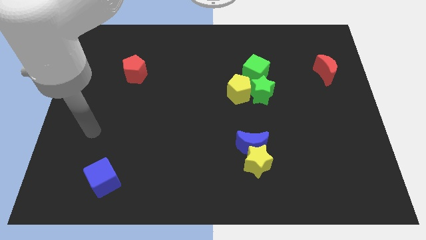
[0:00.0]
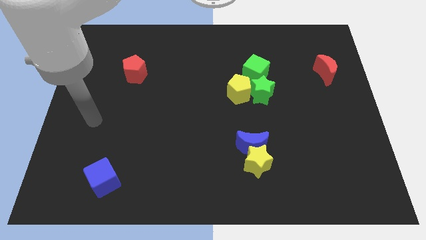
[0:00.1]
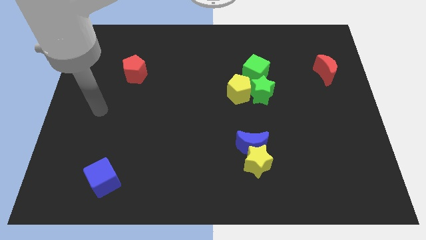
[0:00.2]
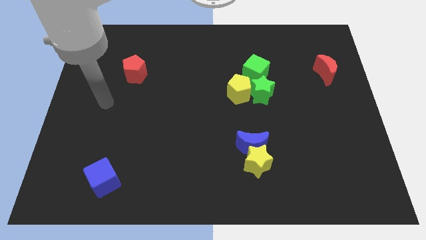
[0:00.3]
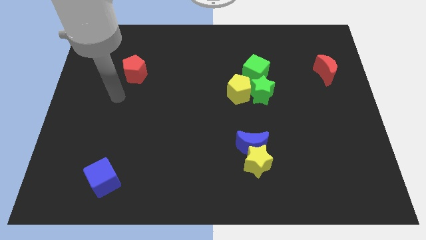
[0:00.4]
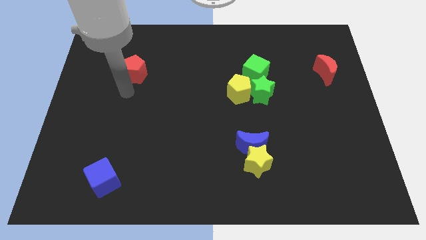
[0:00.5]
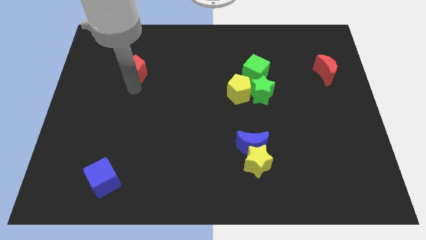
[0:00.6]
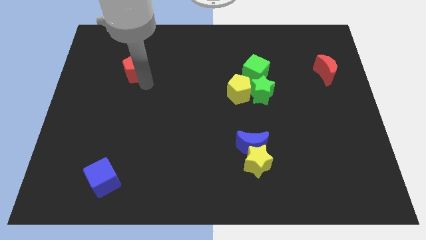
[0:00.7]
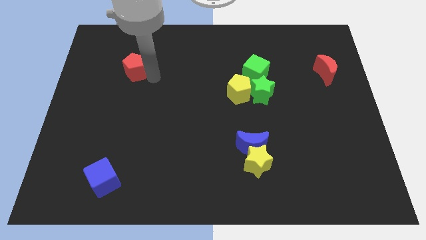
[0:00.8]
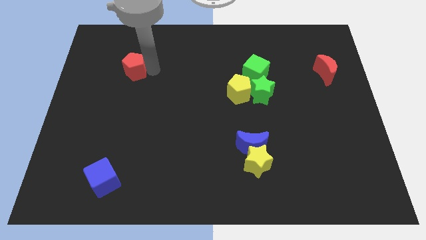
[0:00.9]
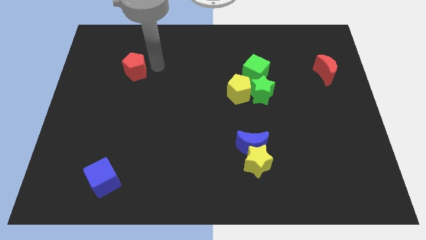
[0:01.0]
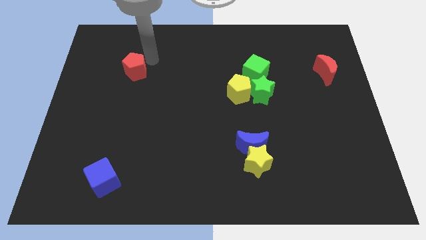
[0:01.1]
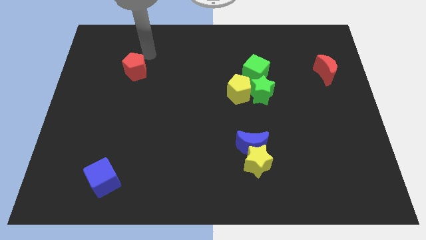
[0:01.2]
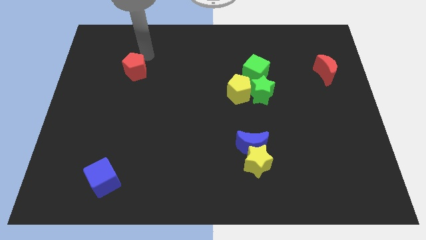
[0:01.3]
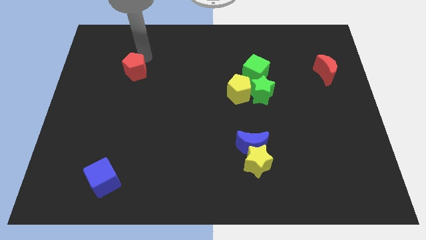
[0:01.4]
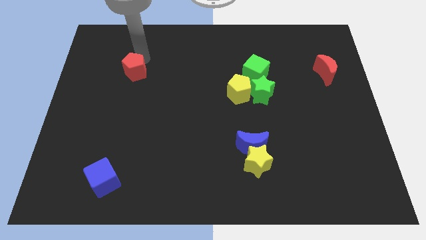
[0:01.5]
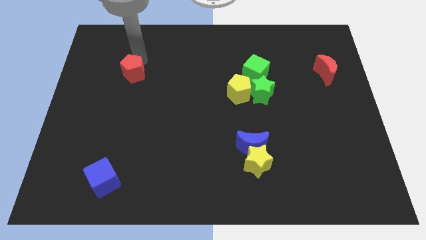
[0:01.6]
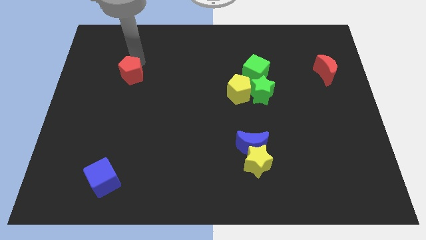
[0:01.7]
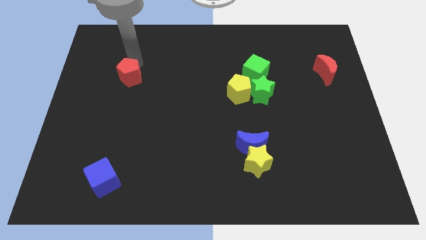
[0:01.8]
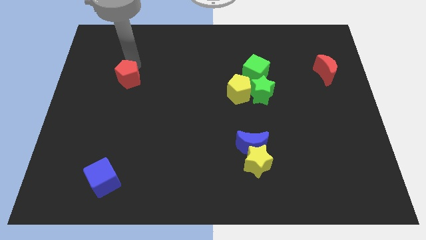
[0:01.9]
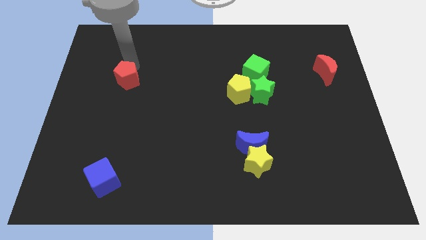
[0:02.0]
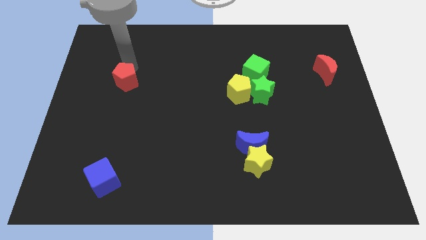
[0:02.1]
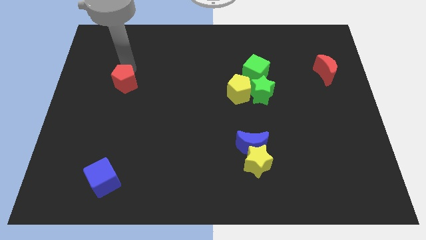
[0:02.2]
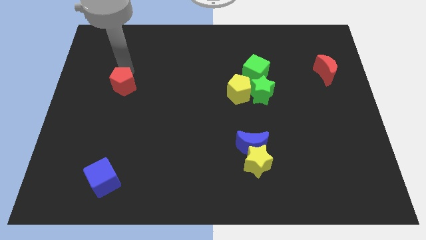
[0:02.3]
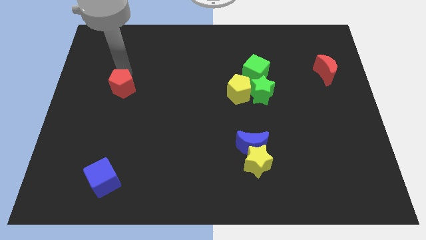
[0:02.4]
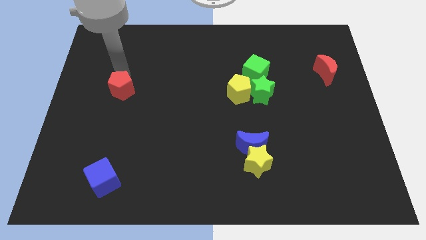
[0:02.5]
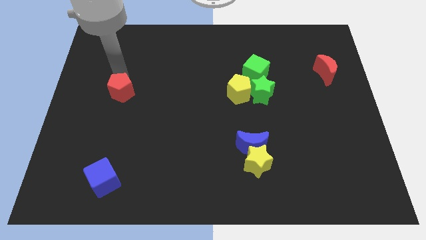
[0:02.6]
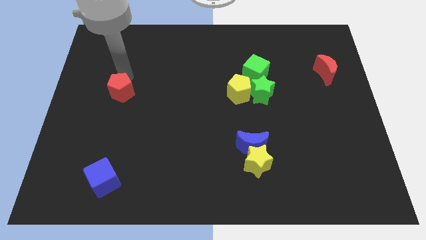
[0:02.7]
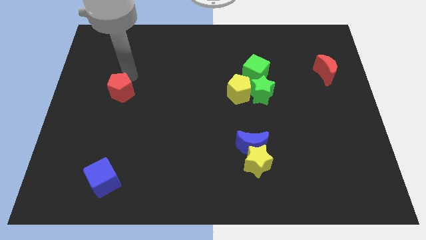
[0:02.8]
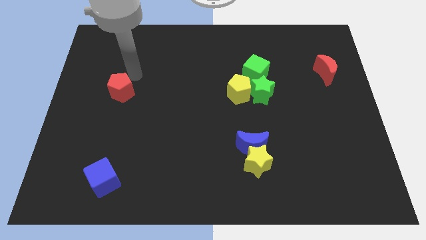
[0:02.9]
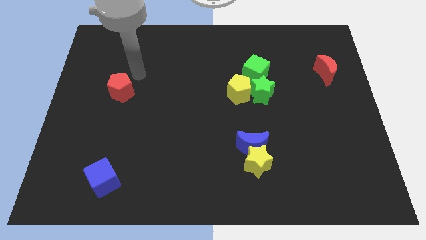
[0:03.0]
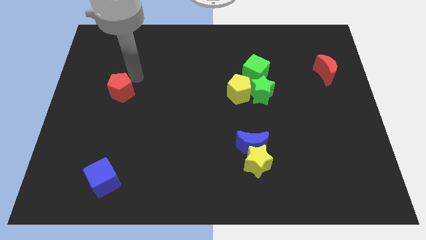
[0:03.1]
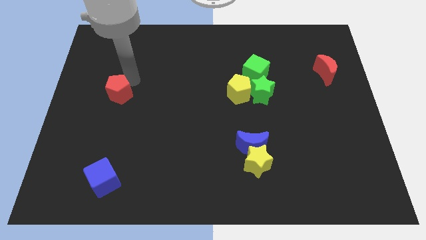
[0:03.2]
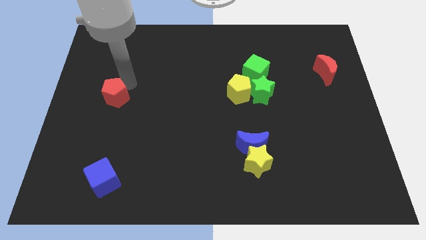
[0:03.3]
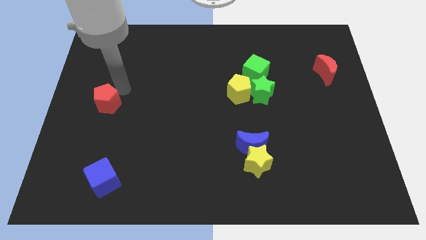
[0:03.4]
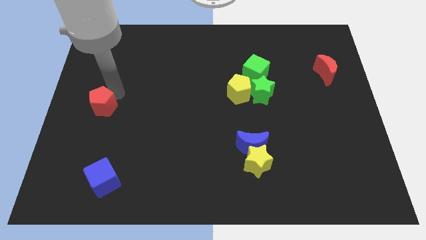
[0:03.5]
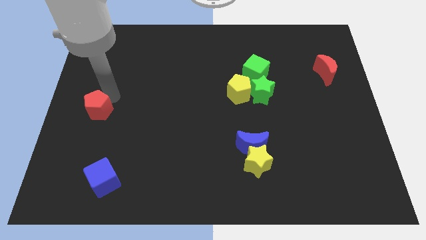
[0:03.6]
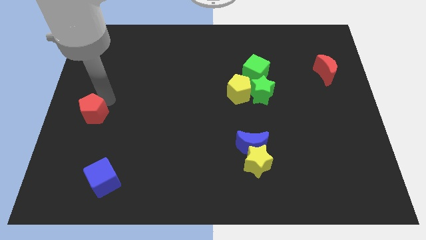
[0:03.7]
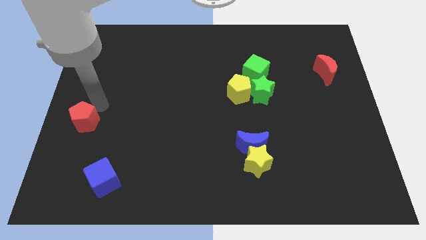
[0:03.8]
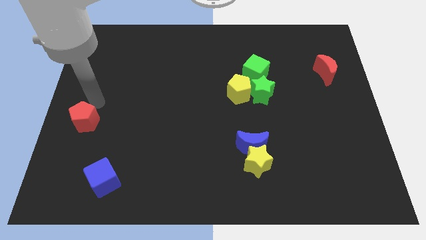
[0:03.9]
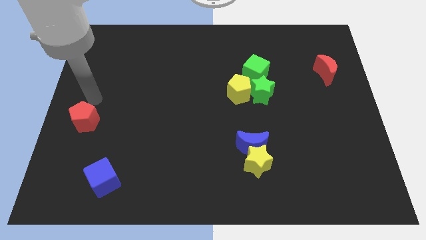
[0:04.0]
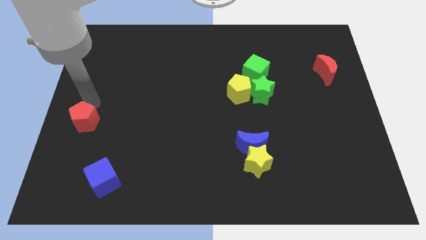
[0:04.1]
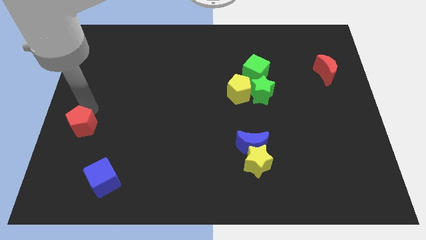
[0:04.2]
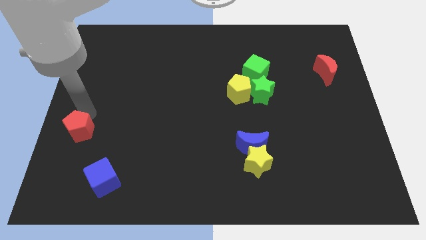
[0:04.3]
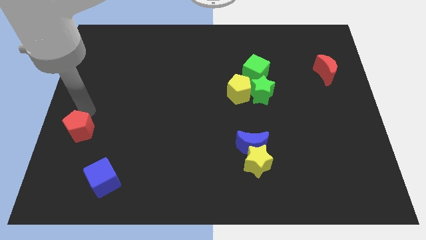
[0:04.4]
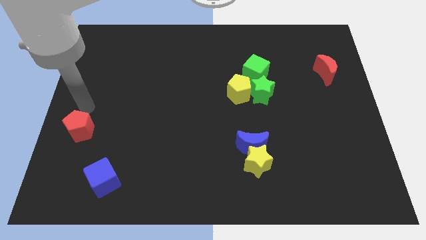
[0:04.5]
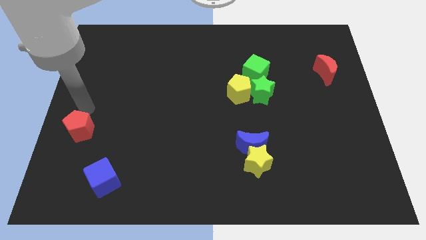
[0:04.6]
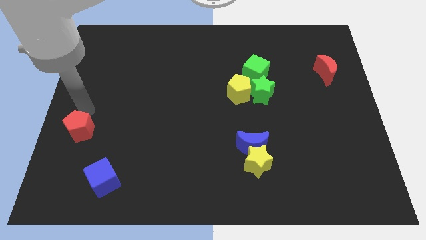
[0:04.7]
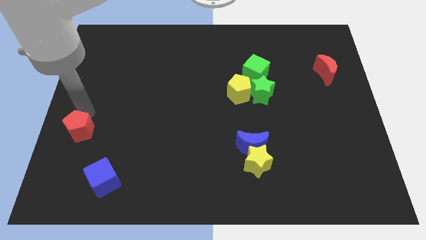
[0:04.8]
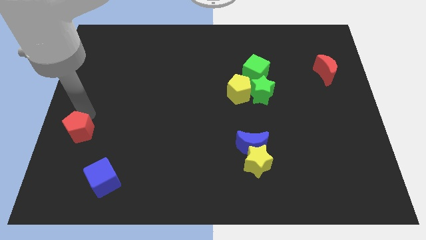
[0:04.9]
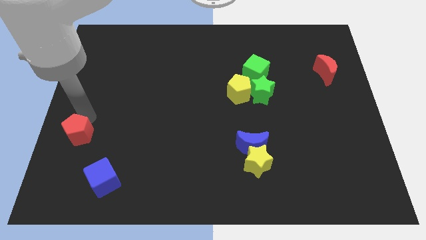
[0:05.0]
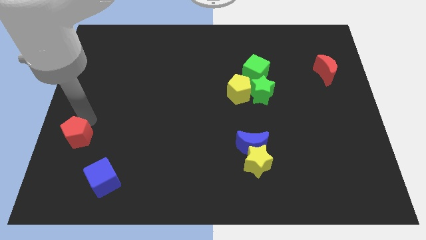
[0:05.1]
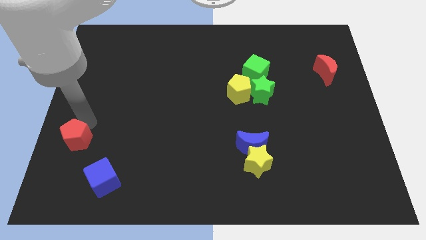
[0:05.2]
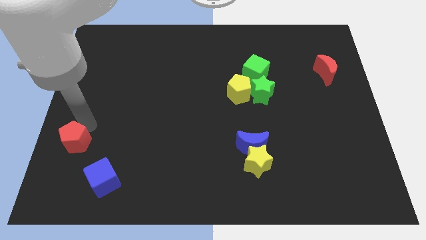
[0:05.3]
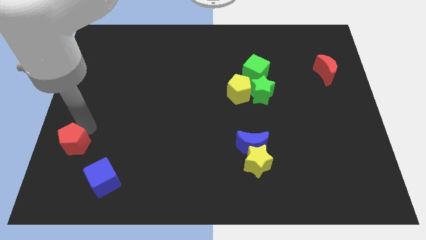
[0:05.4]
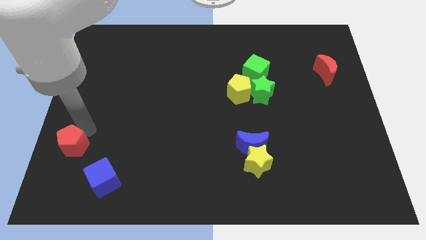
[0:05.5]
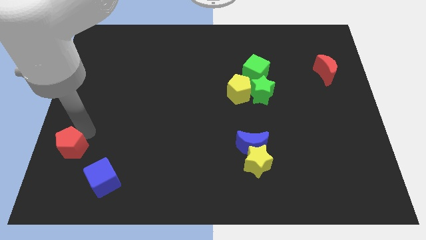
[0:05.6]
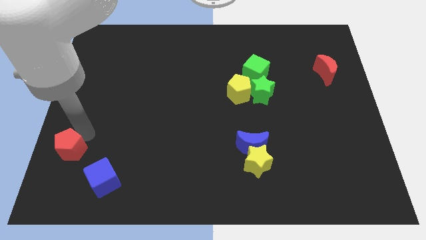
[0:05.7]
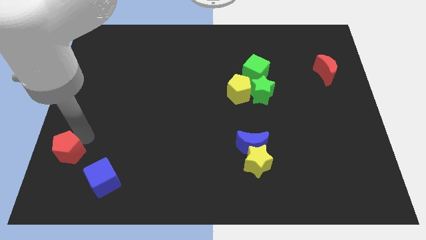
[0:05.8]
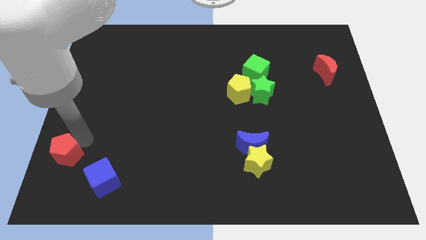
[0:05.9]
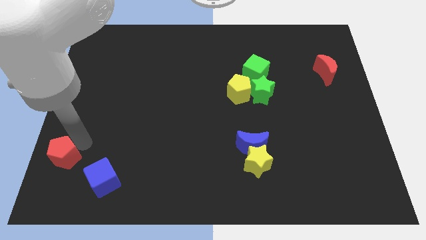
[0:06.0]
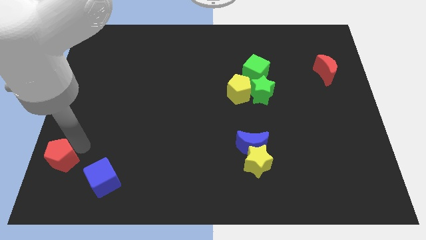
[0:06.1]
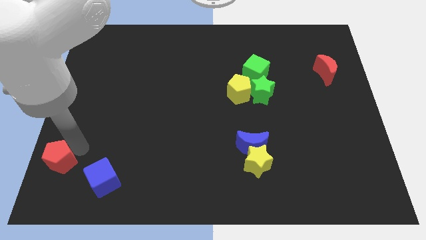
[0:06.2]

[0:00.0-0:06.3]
push the red pentagon to the bottom left corner

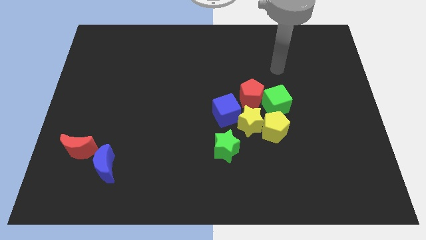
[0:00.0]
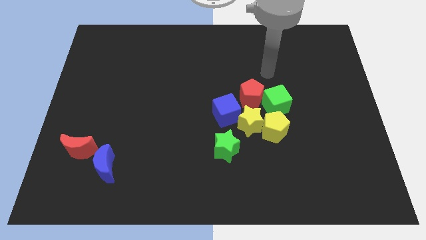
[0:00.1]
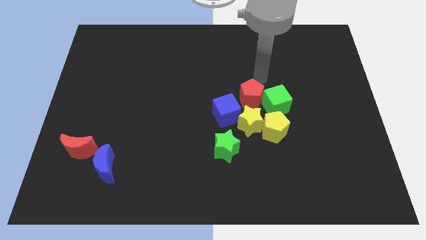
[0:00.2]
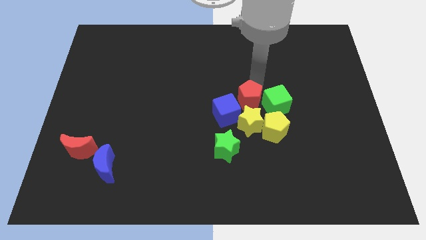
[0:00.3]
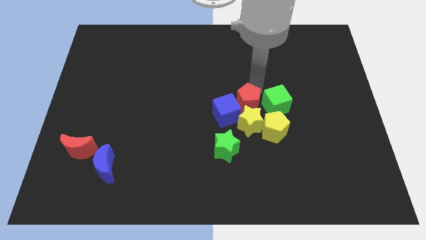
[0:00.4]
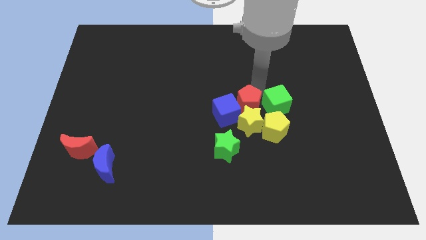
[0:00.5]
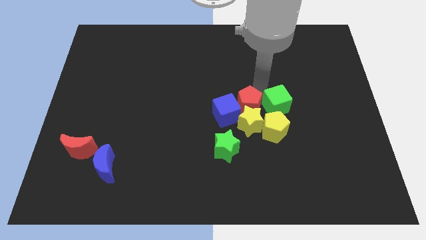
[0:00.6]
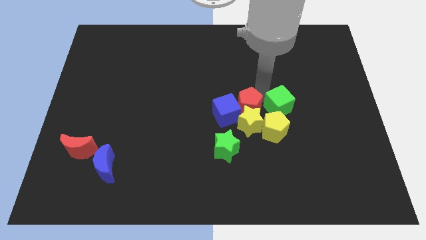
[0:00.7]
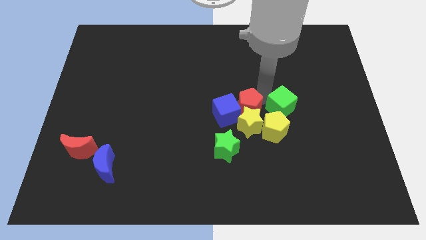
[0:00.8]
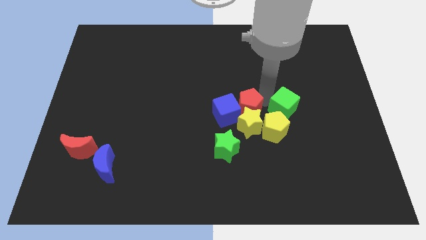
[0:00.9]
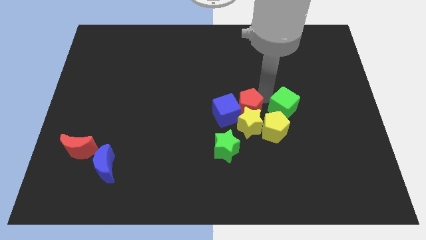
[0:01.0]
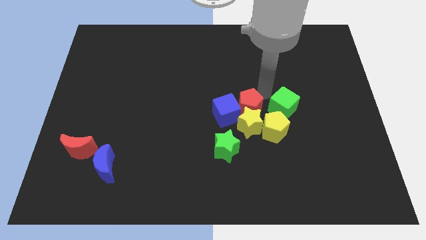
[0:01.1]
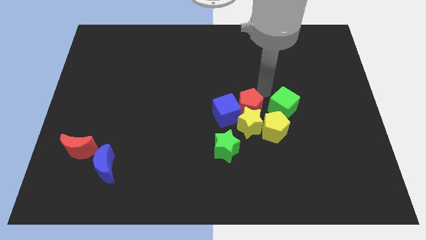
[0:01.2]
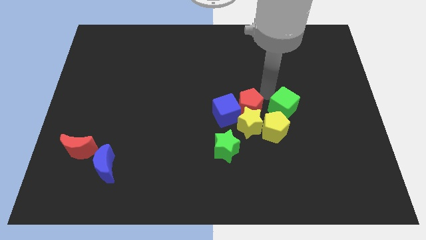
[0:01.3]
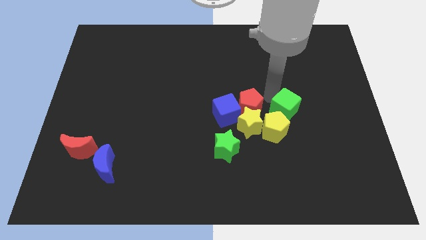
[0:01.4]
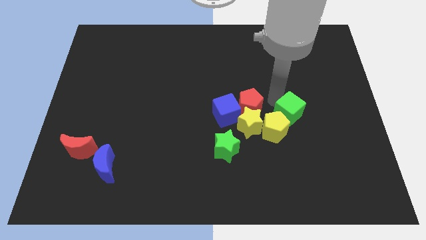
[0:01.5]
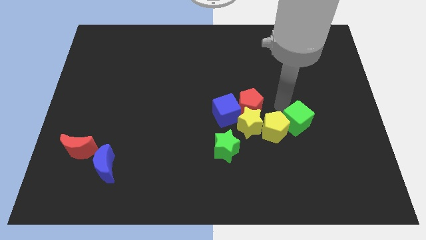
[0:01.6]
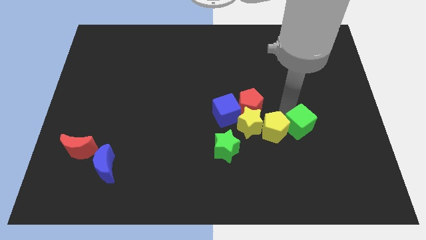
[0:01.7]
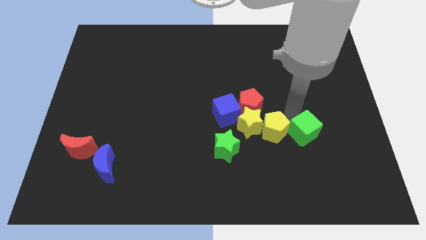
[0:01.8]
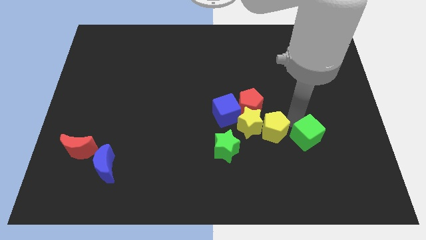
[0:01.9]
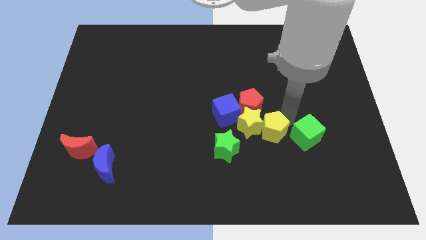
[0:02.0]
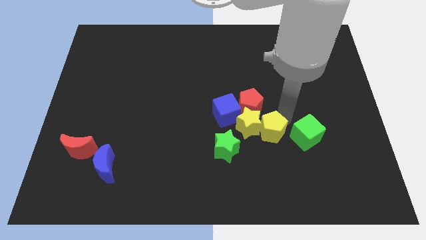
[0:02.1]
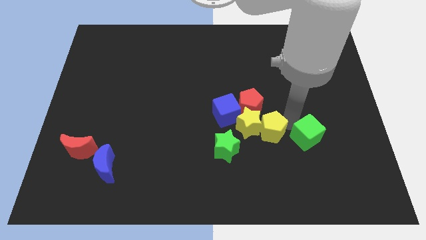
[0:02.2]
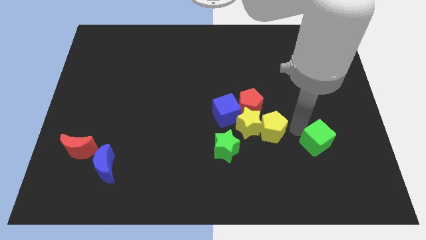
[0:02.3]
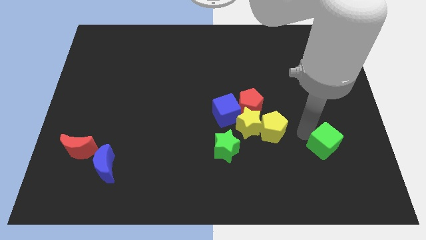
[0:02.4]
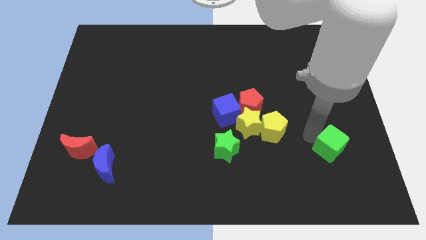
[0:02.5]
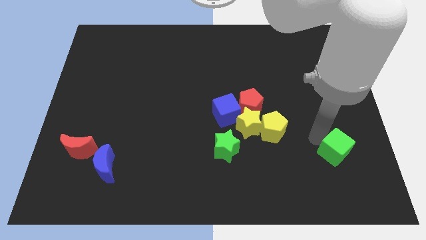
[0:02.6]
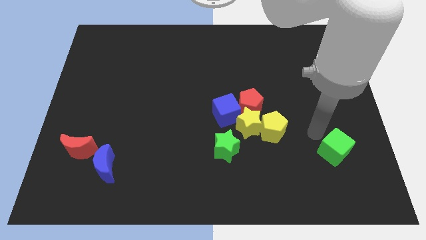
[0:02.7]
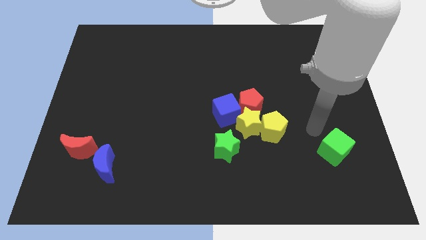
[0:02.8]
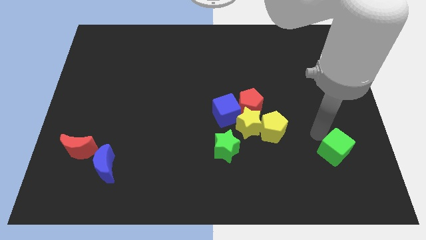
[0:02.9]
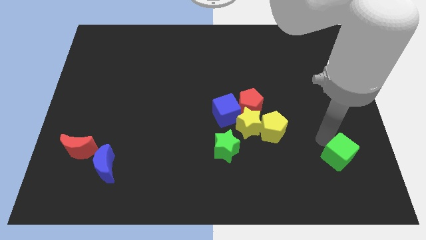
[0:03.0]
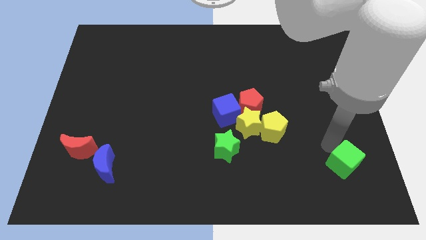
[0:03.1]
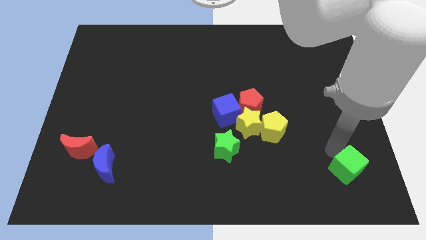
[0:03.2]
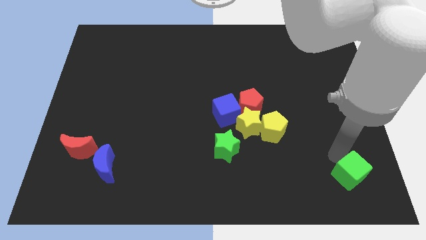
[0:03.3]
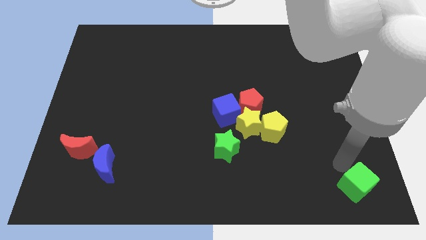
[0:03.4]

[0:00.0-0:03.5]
push the green cube to the bottom right corner
